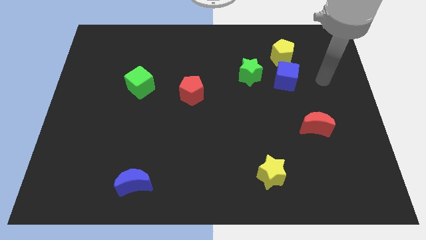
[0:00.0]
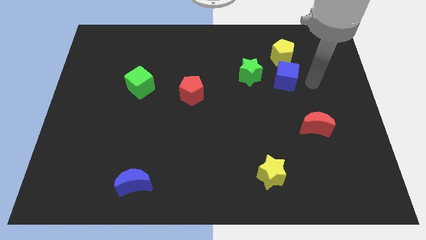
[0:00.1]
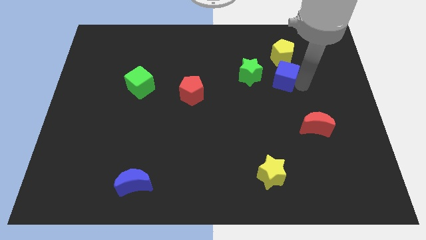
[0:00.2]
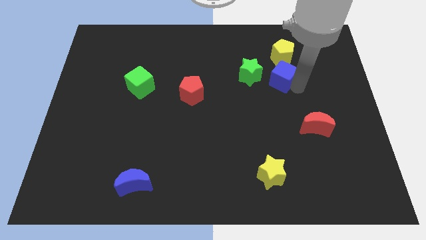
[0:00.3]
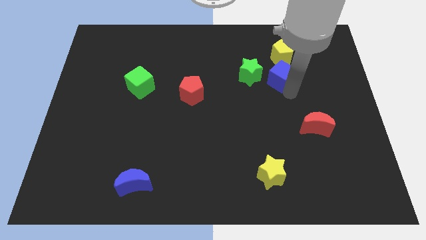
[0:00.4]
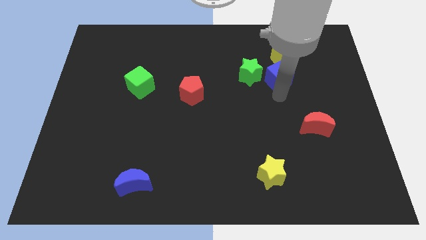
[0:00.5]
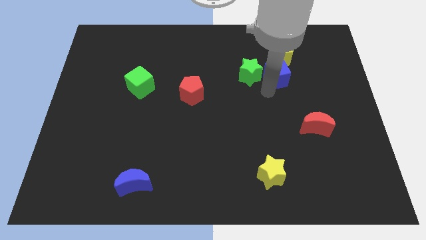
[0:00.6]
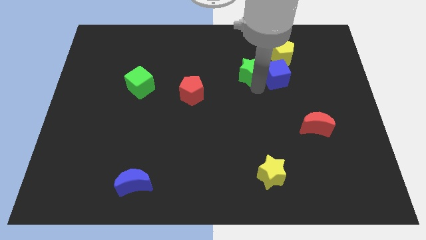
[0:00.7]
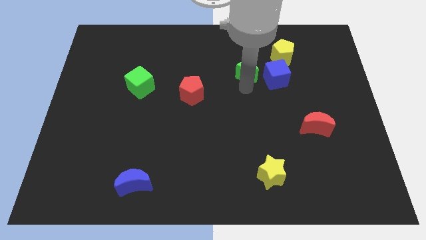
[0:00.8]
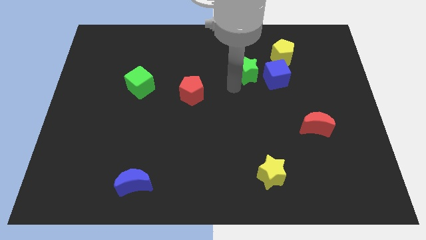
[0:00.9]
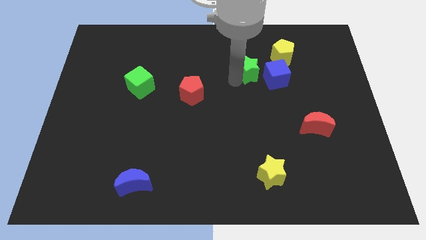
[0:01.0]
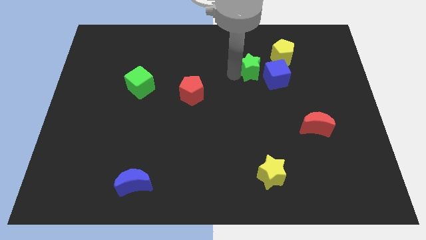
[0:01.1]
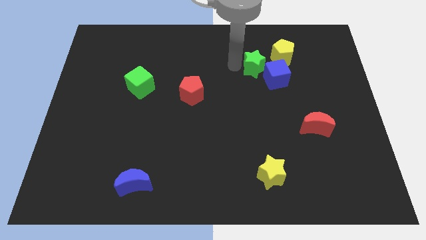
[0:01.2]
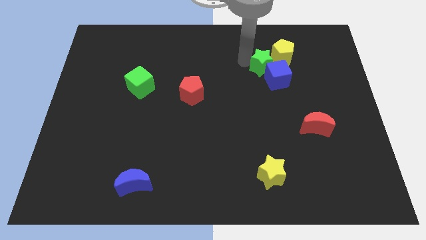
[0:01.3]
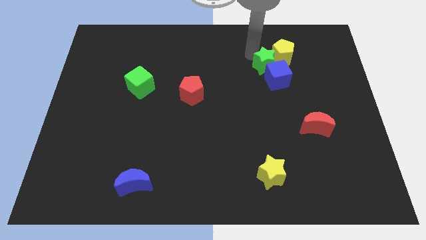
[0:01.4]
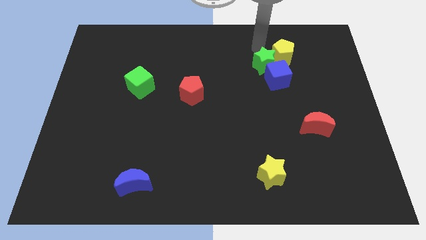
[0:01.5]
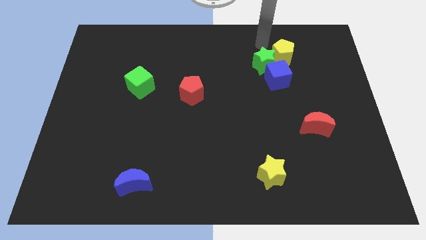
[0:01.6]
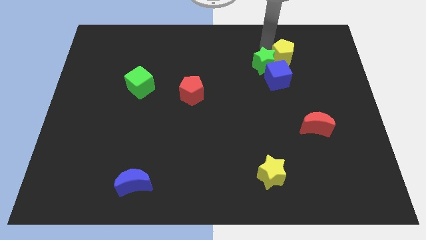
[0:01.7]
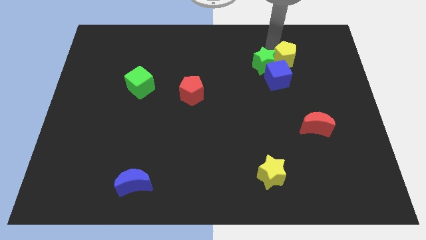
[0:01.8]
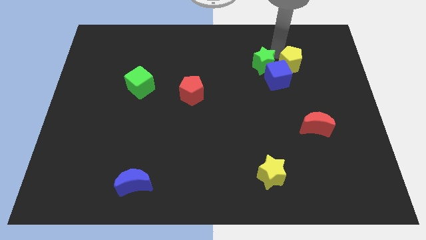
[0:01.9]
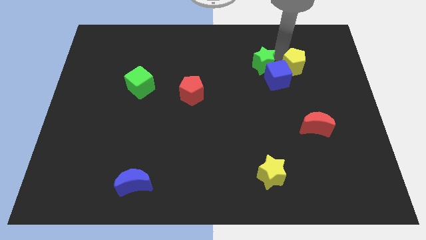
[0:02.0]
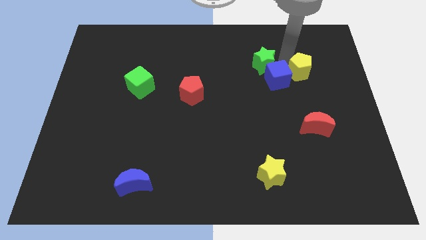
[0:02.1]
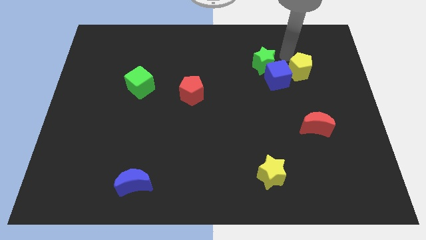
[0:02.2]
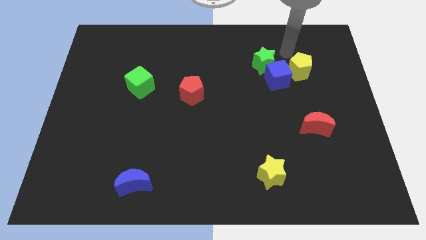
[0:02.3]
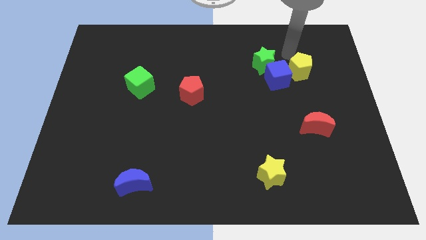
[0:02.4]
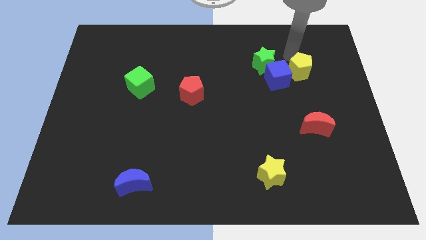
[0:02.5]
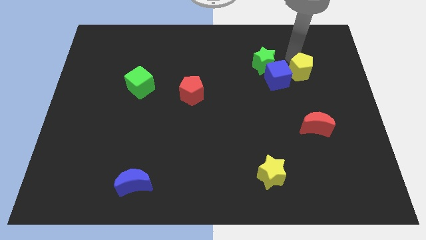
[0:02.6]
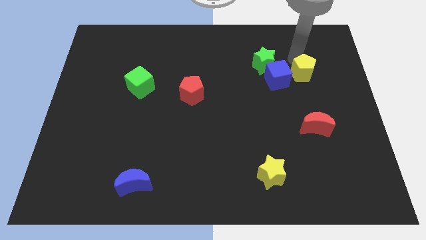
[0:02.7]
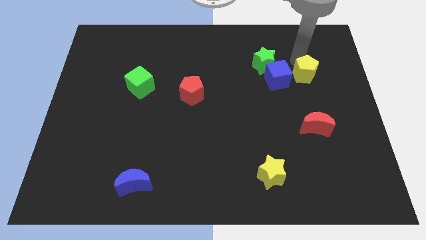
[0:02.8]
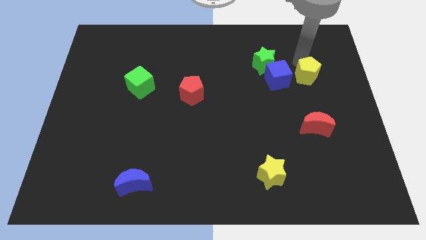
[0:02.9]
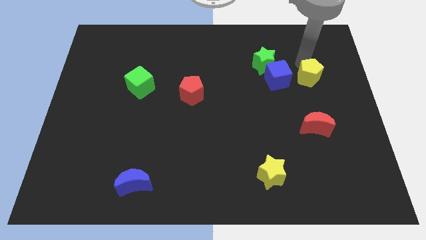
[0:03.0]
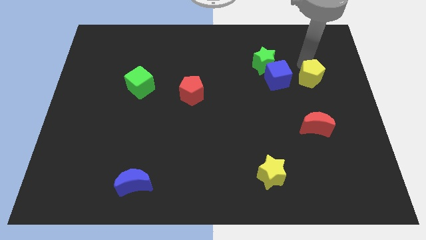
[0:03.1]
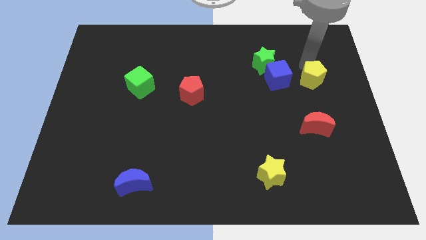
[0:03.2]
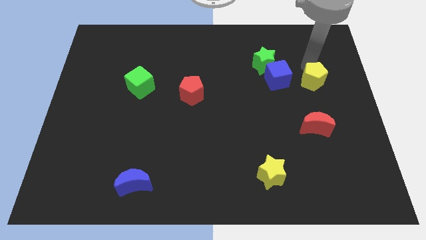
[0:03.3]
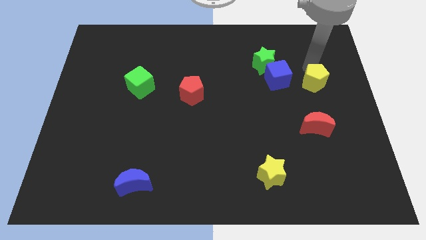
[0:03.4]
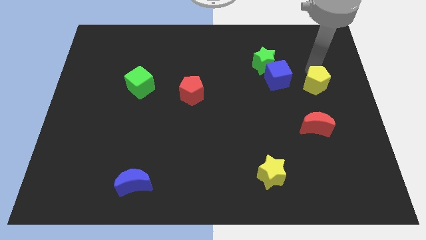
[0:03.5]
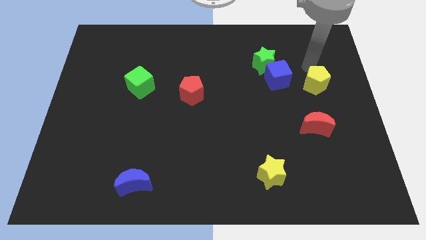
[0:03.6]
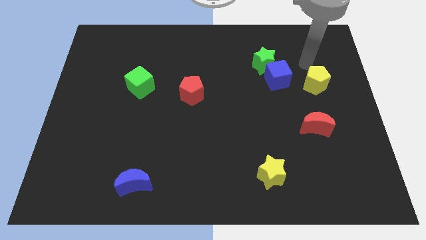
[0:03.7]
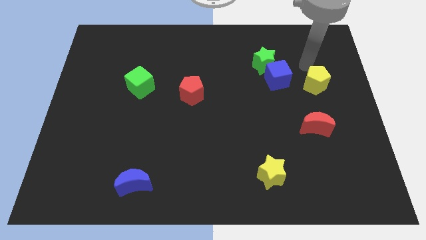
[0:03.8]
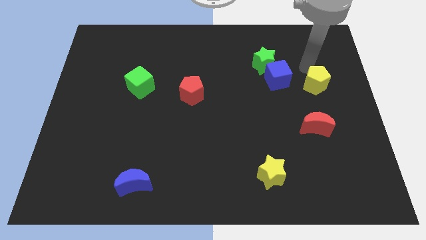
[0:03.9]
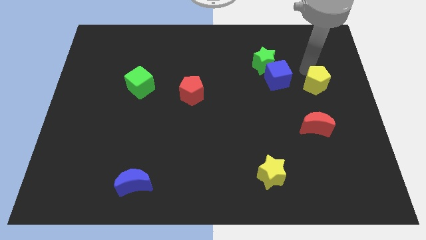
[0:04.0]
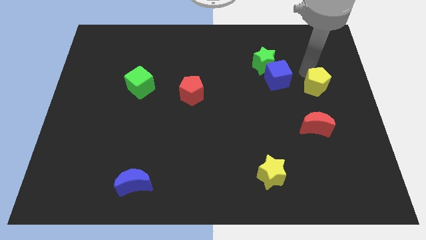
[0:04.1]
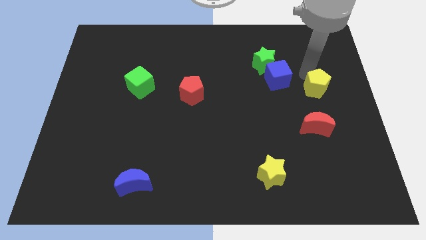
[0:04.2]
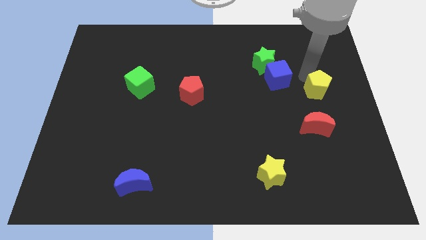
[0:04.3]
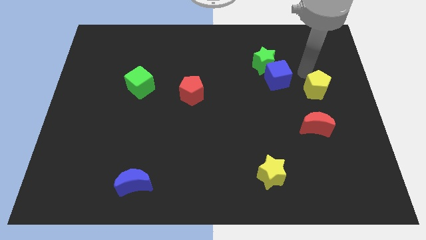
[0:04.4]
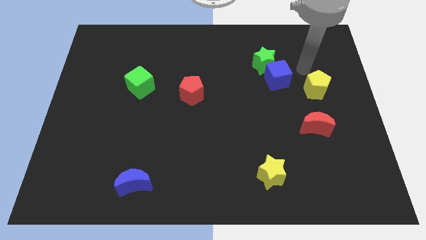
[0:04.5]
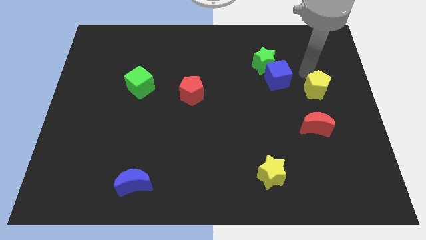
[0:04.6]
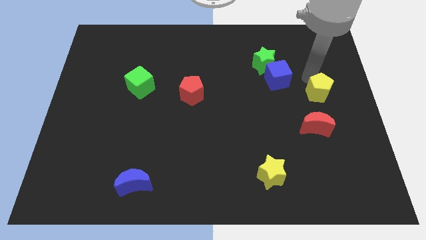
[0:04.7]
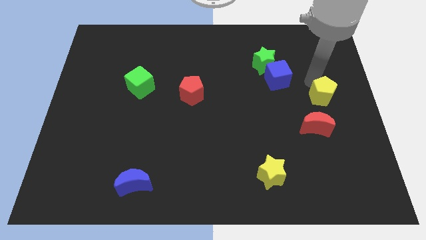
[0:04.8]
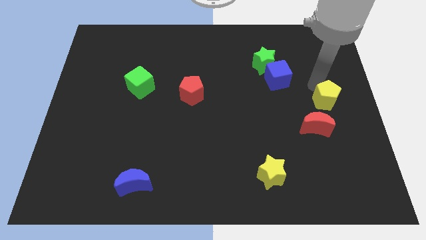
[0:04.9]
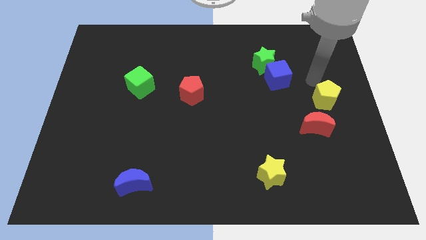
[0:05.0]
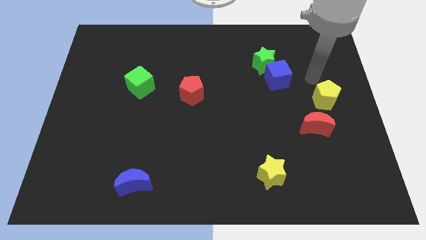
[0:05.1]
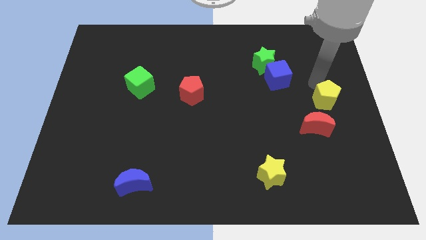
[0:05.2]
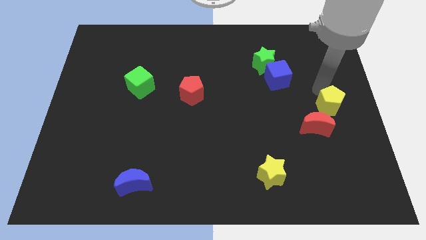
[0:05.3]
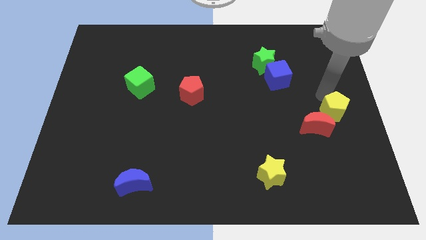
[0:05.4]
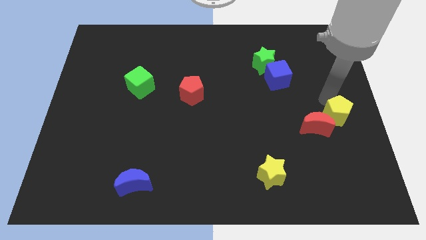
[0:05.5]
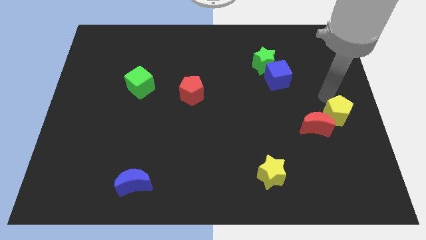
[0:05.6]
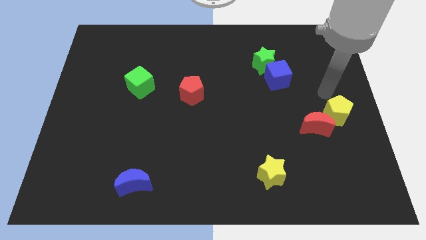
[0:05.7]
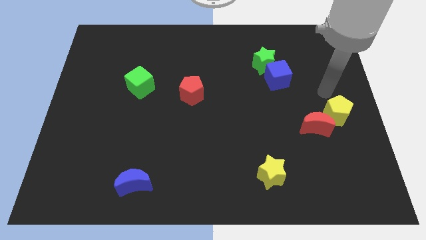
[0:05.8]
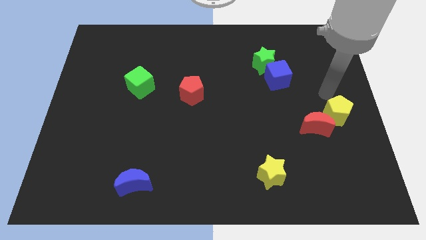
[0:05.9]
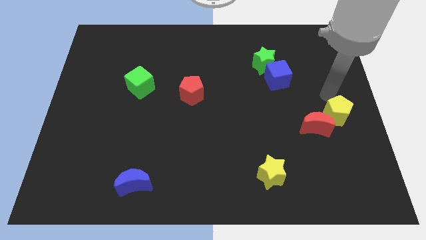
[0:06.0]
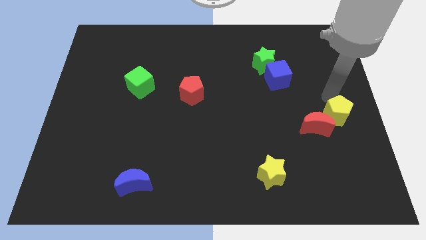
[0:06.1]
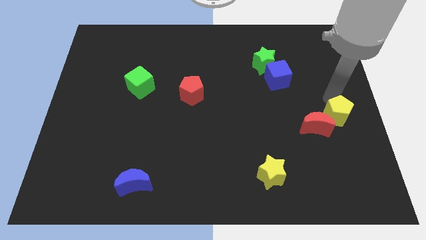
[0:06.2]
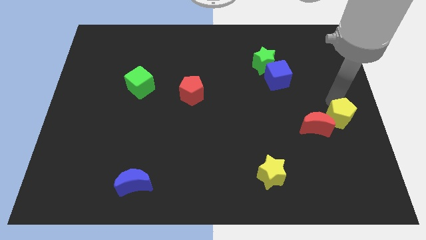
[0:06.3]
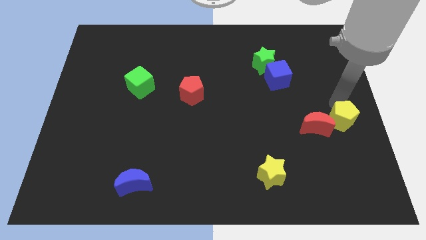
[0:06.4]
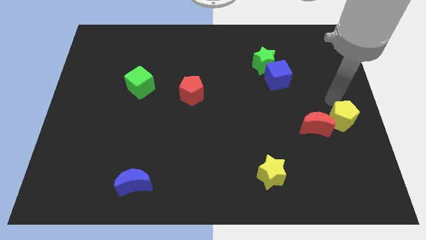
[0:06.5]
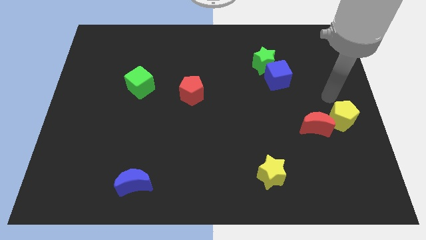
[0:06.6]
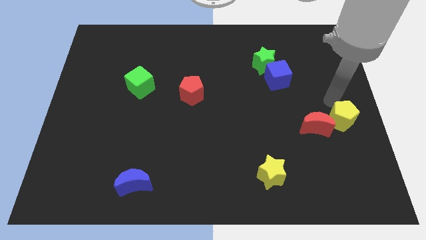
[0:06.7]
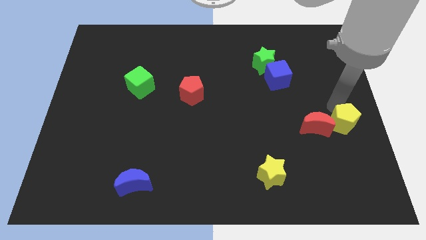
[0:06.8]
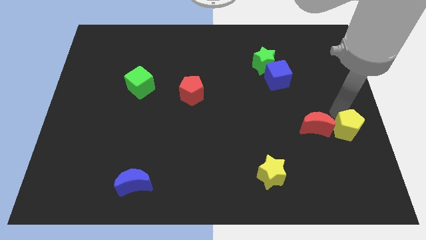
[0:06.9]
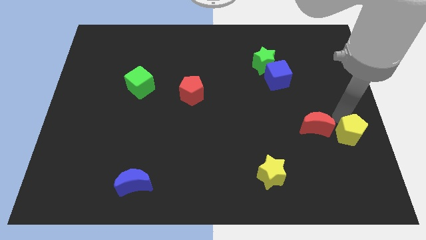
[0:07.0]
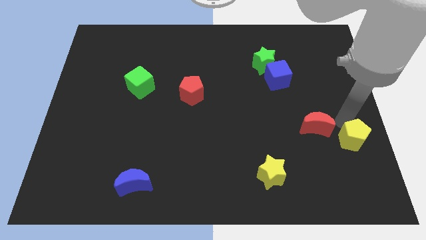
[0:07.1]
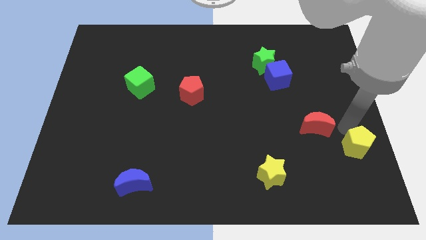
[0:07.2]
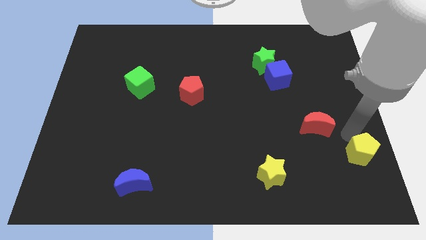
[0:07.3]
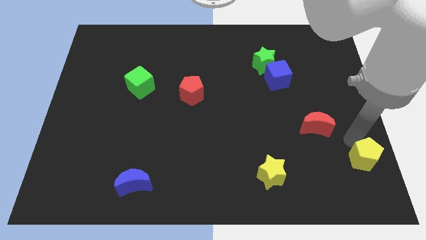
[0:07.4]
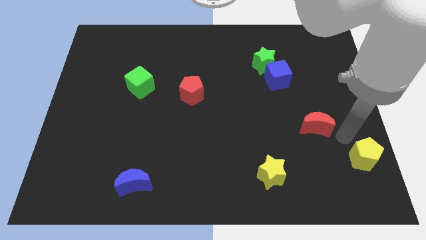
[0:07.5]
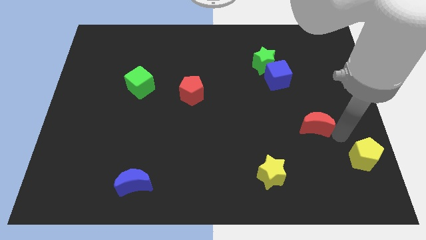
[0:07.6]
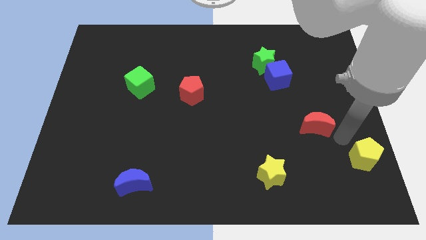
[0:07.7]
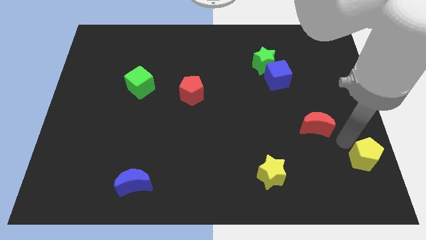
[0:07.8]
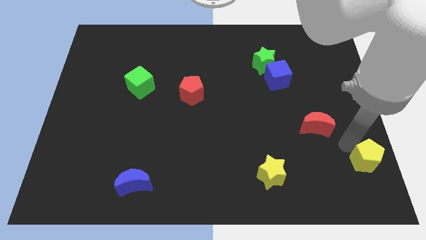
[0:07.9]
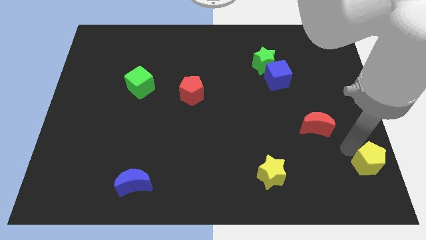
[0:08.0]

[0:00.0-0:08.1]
put the yellow pentagon to the lower right corner
